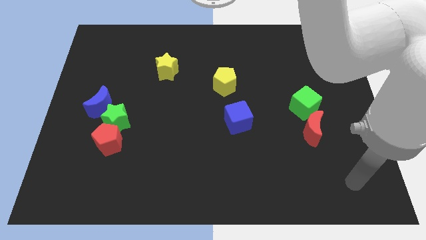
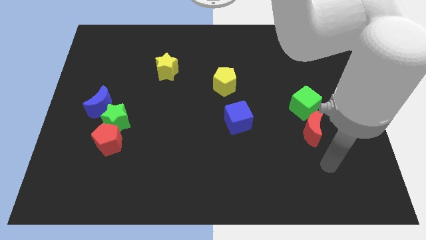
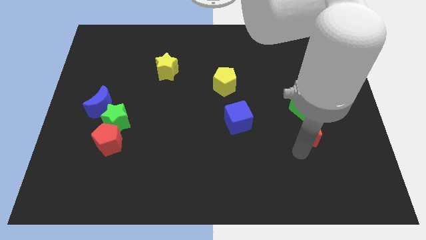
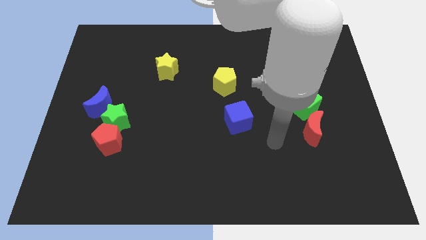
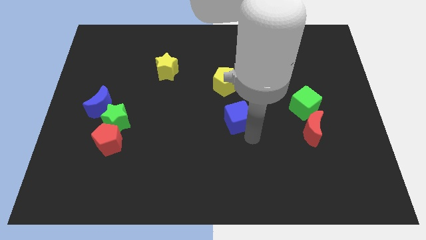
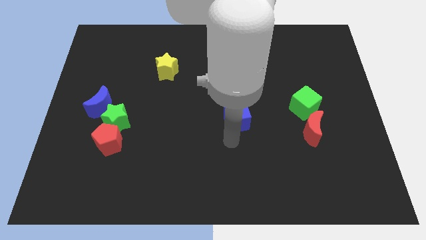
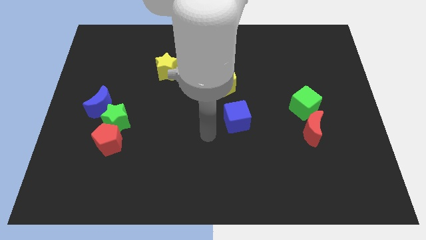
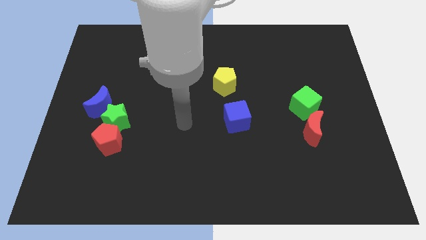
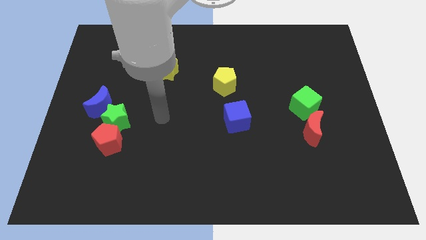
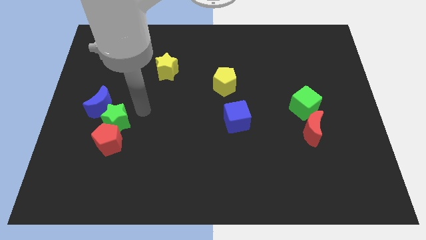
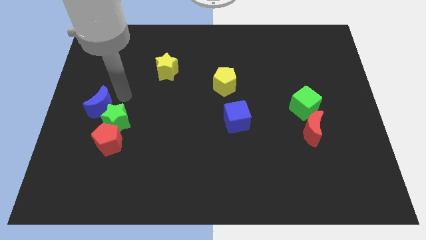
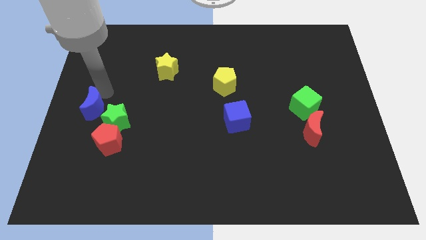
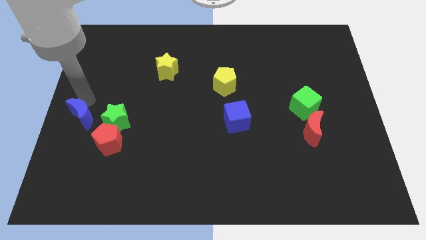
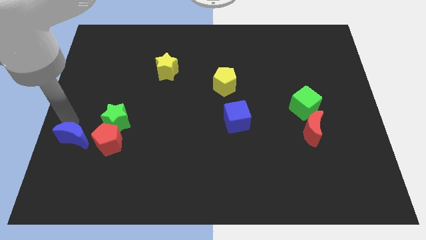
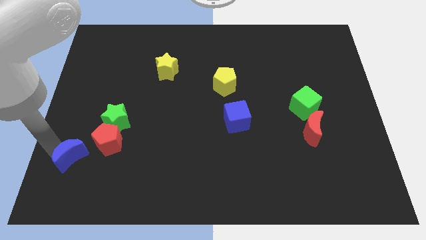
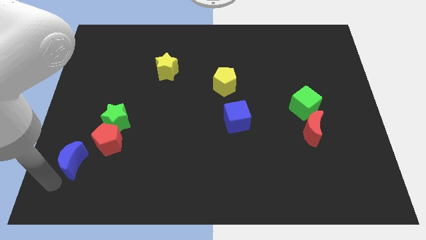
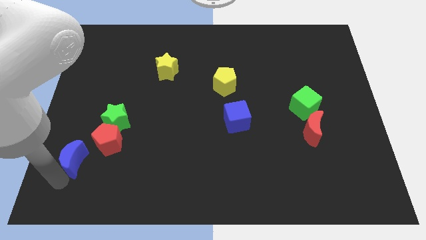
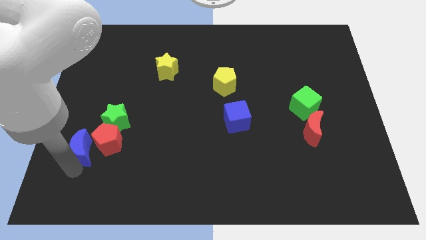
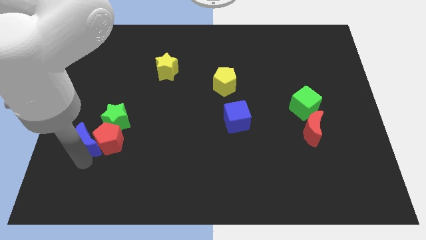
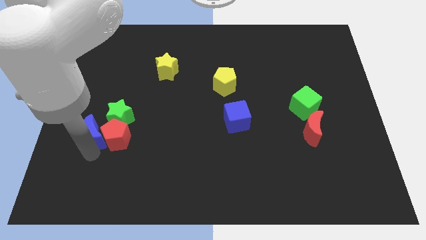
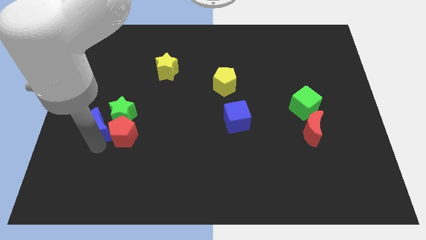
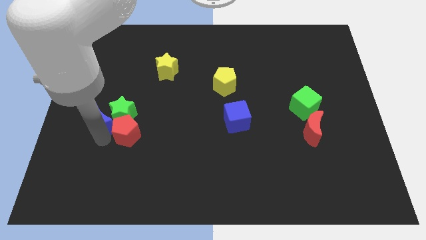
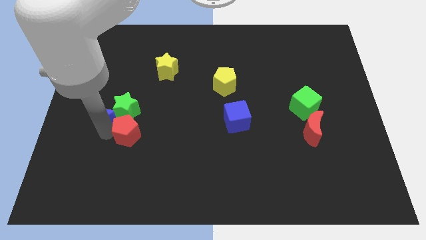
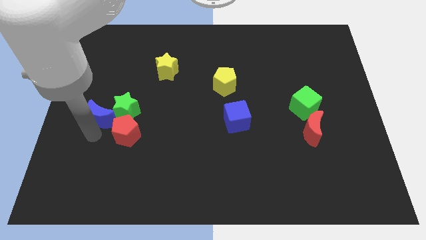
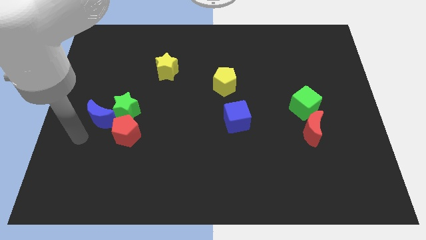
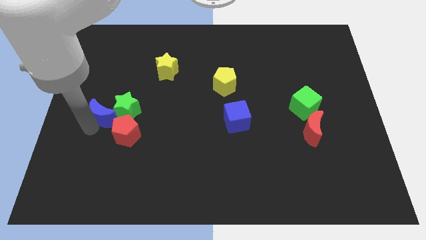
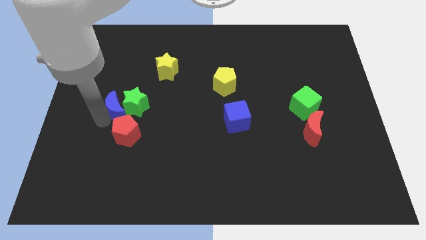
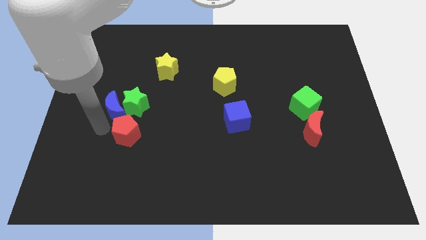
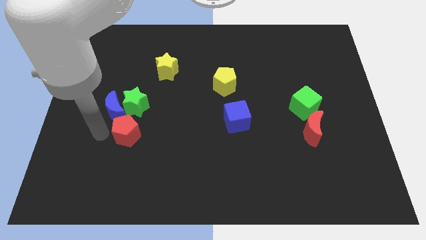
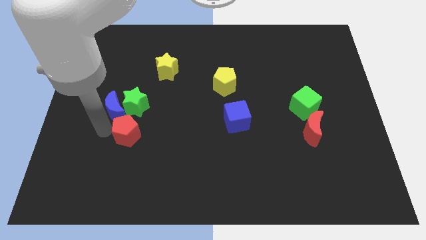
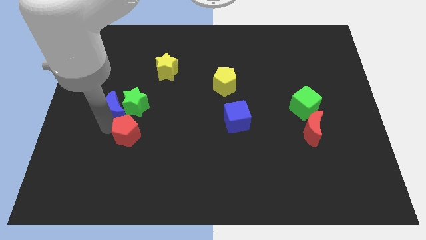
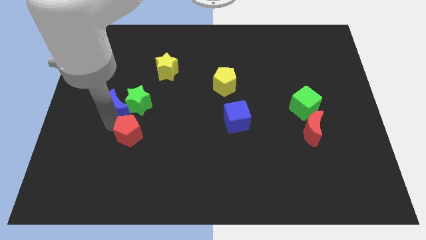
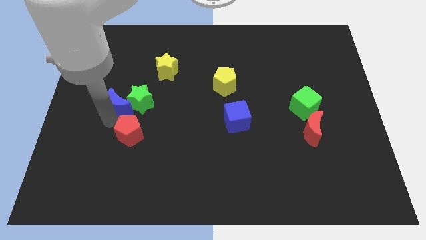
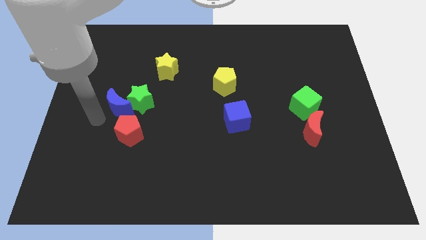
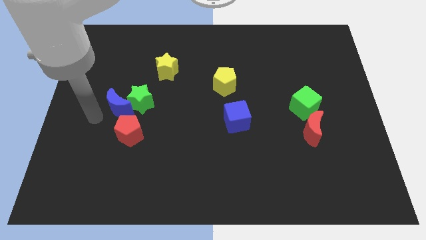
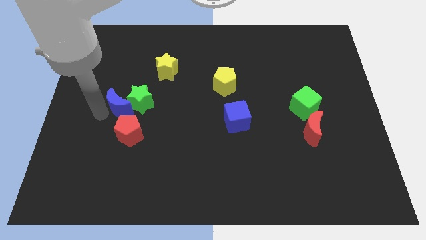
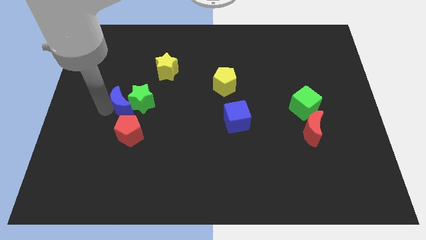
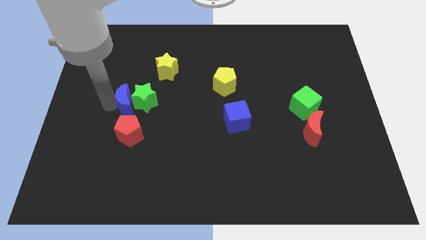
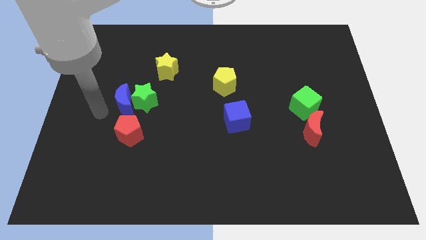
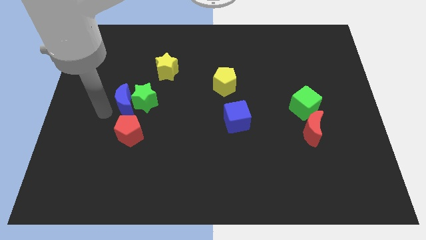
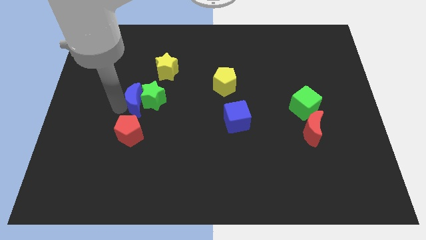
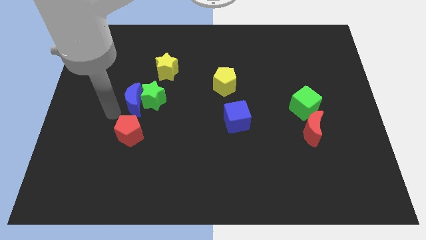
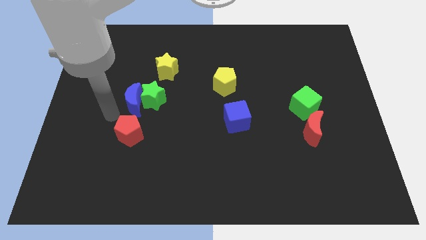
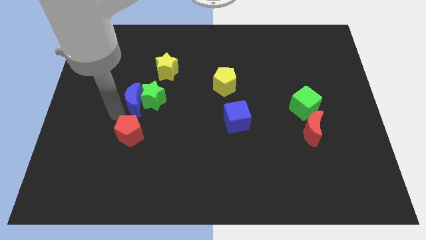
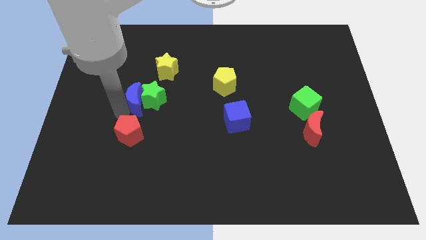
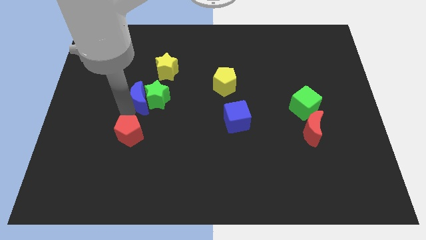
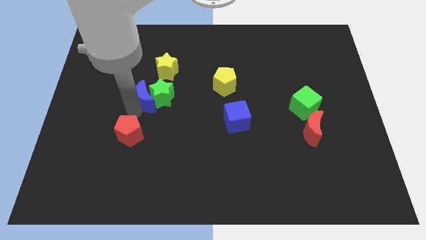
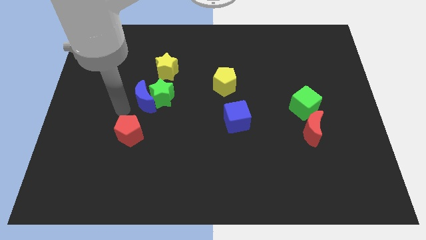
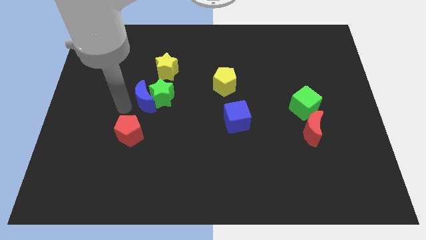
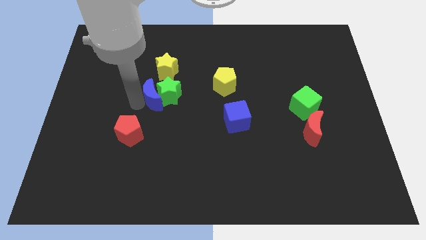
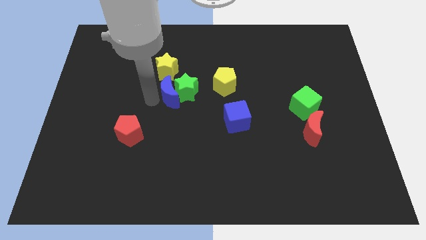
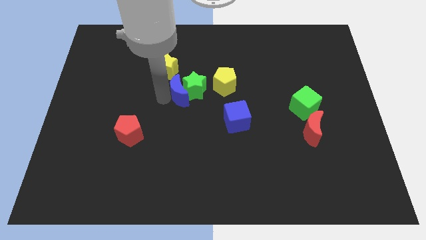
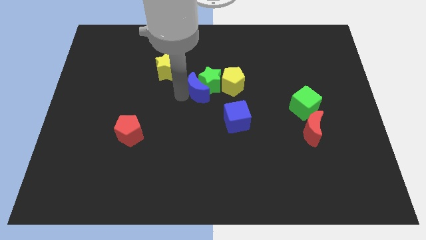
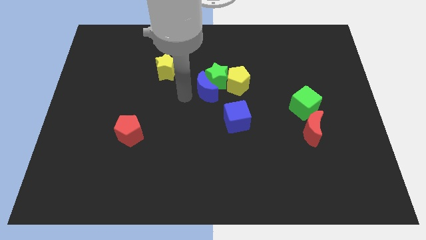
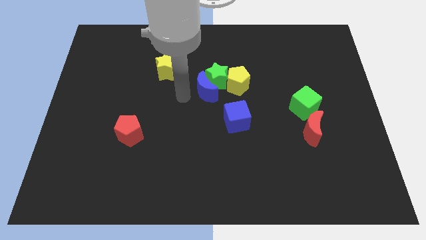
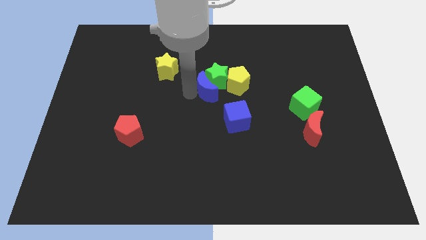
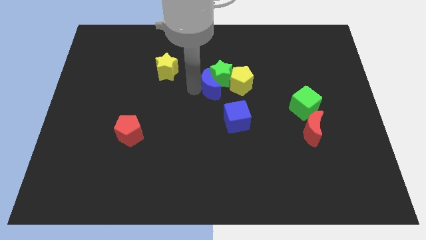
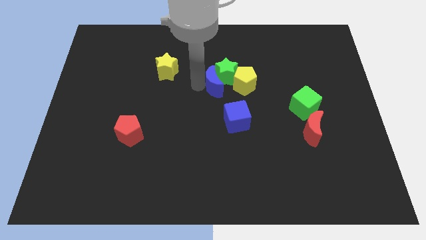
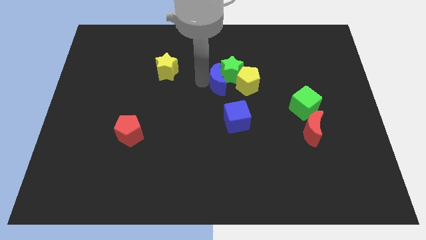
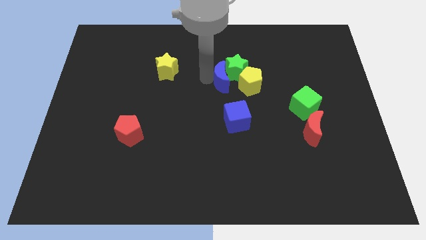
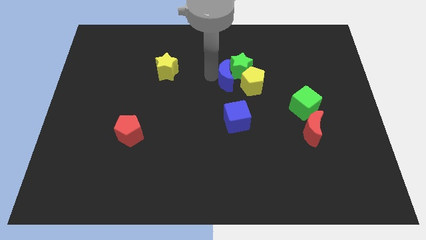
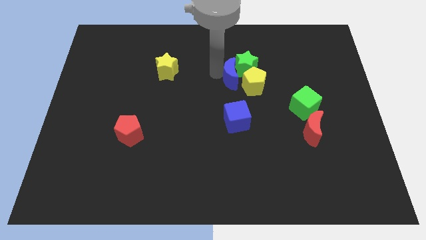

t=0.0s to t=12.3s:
push the blue moon close to the yellow pentagon

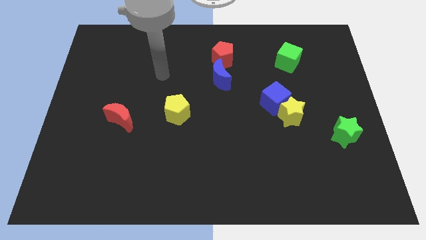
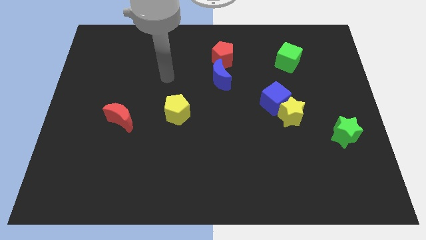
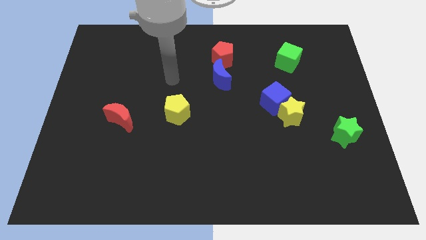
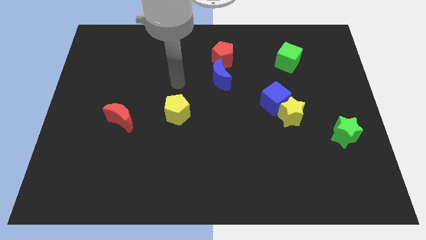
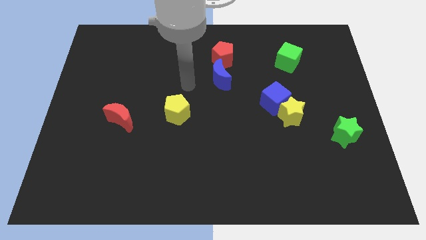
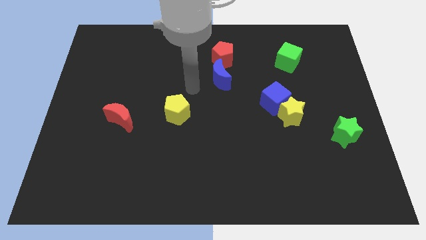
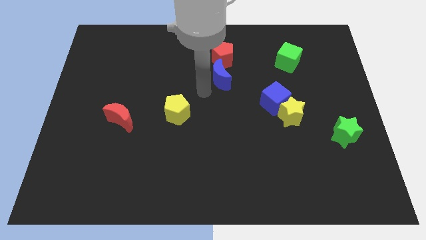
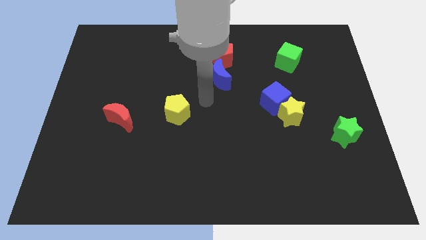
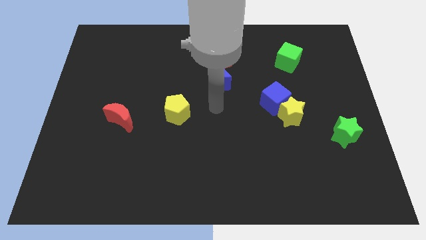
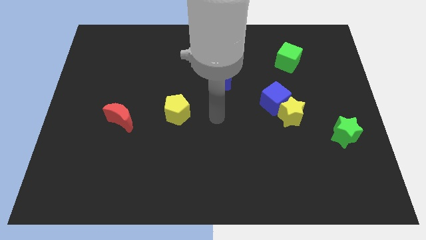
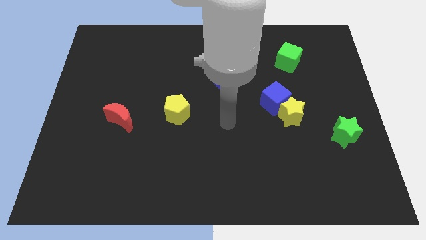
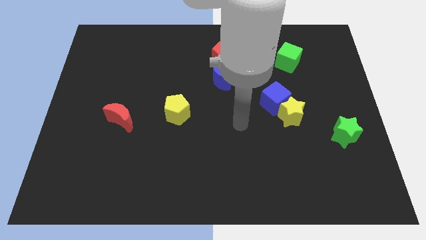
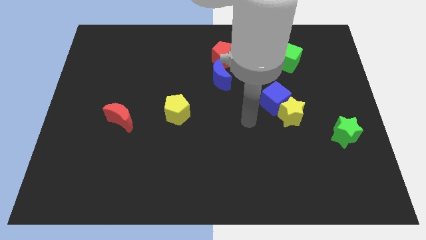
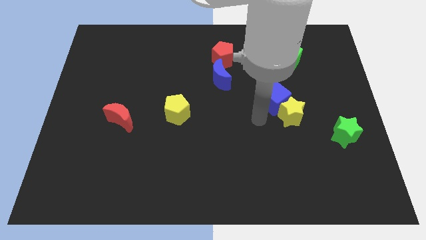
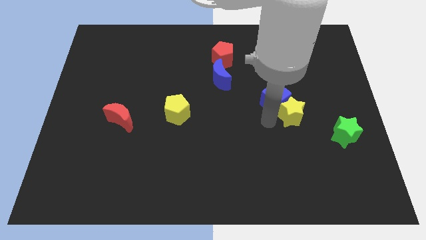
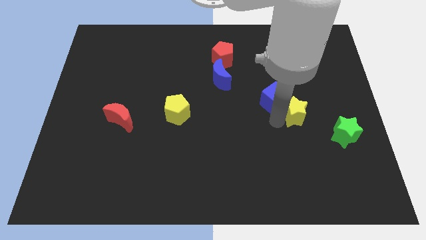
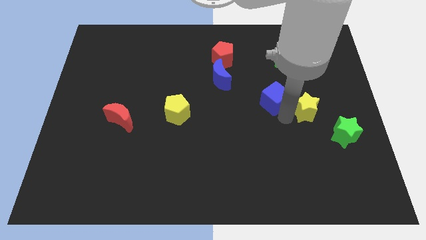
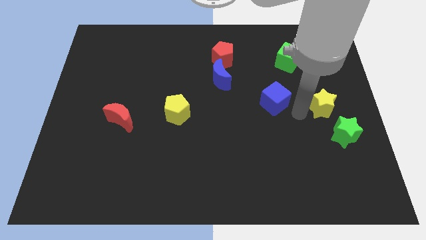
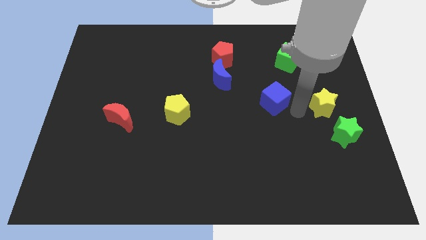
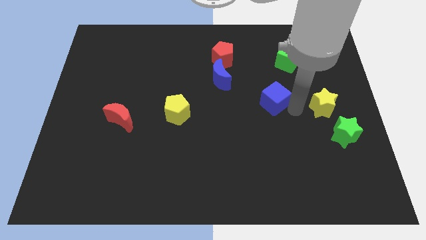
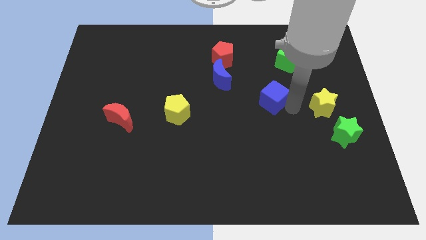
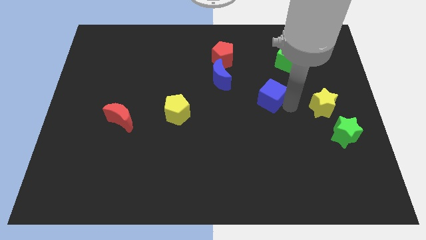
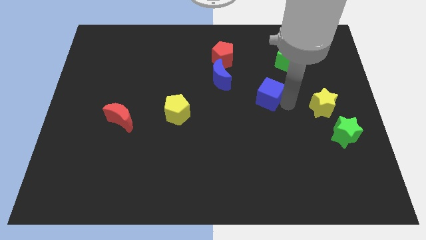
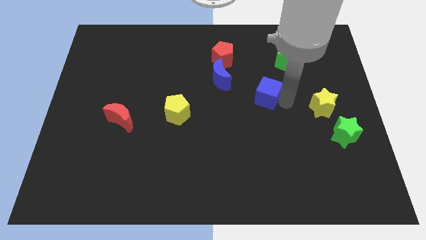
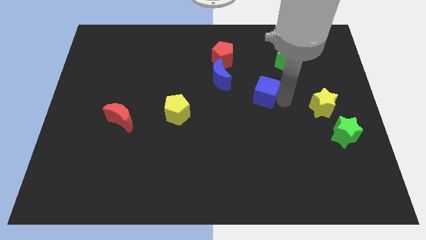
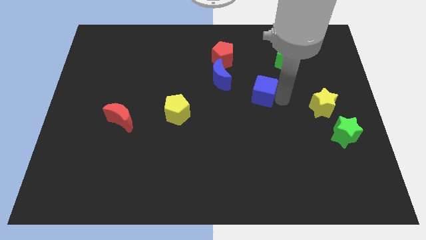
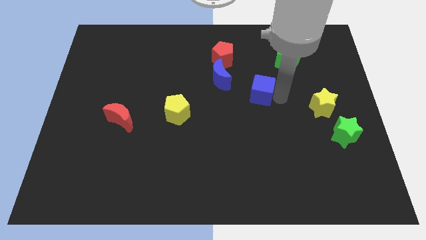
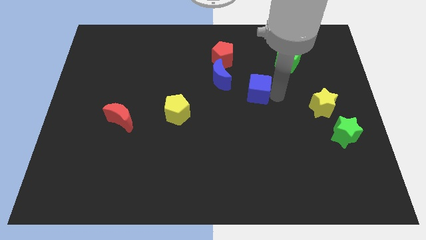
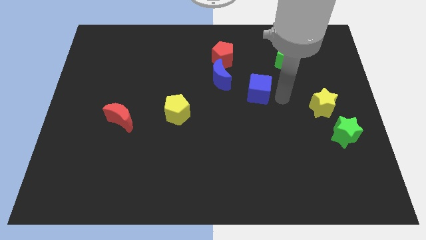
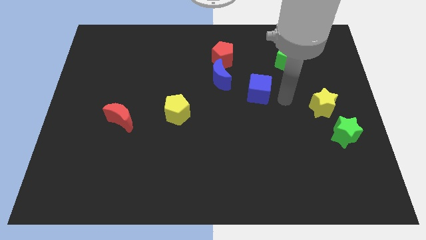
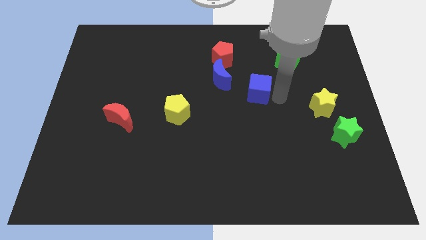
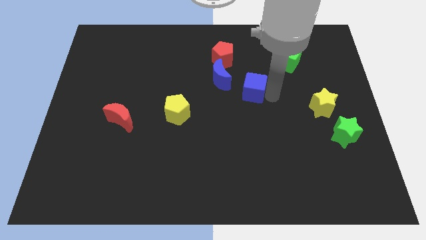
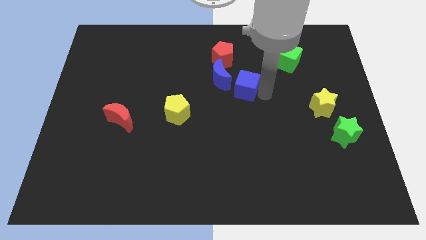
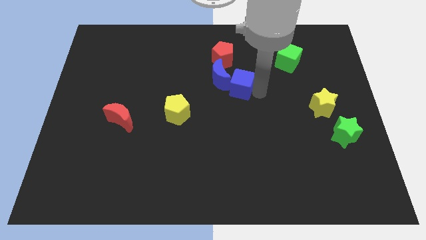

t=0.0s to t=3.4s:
move the blue cube towards the blue moon
